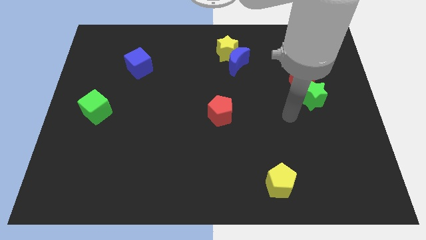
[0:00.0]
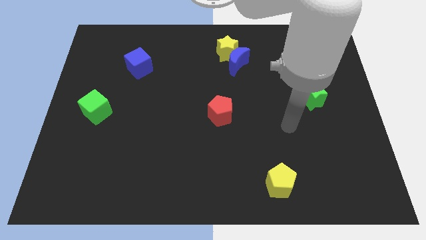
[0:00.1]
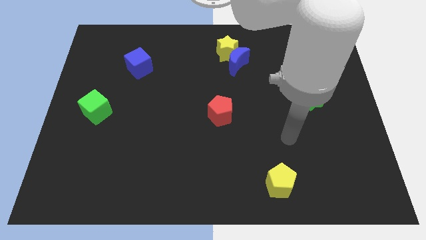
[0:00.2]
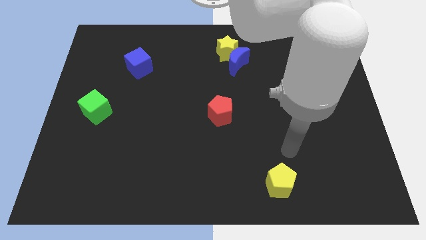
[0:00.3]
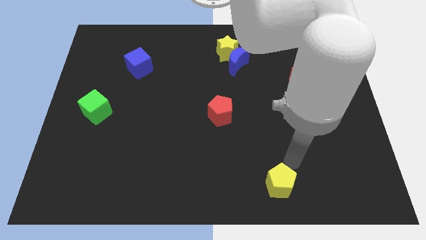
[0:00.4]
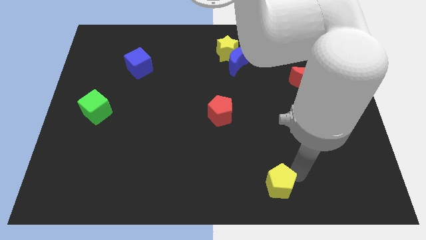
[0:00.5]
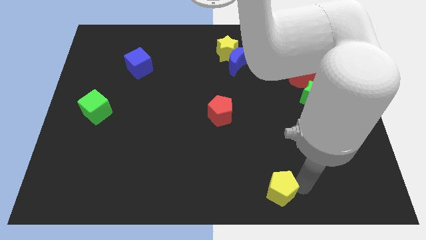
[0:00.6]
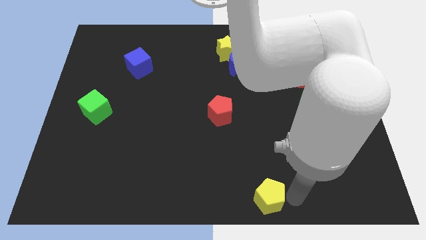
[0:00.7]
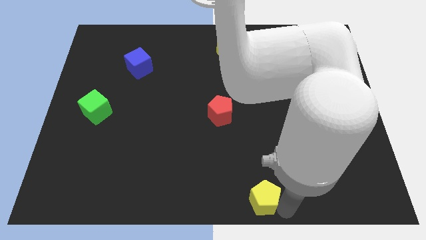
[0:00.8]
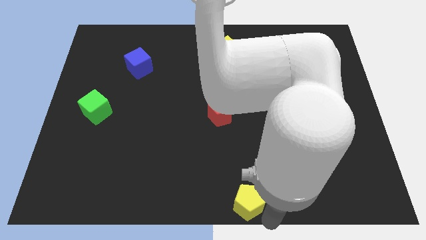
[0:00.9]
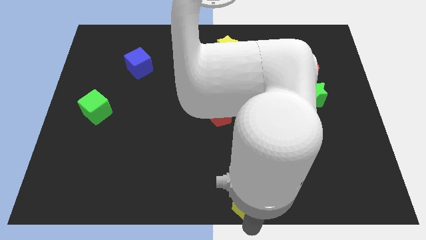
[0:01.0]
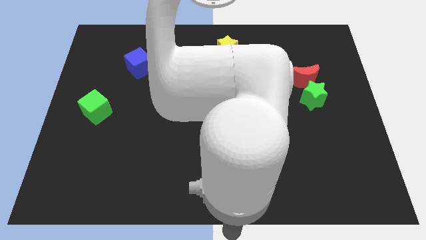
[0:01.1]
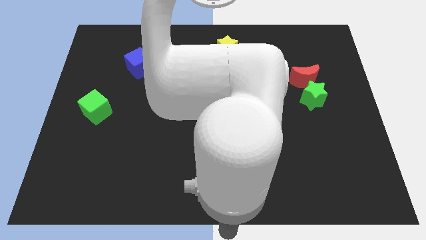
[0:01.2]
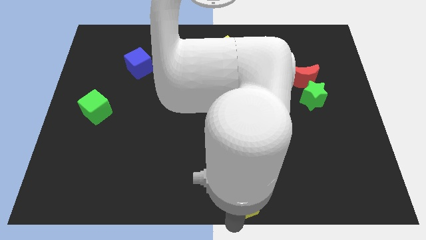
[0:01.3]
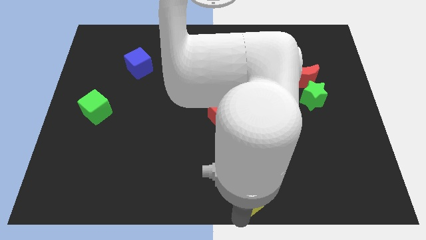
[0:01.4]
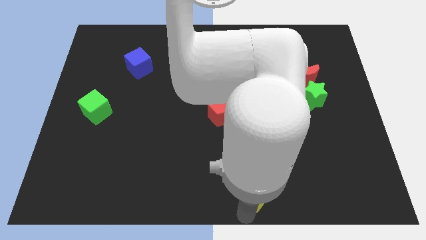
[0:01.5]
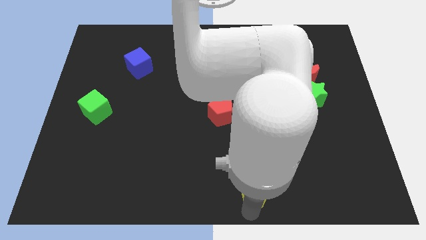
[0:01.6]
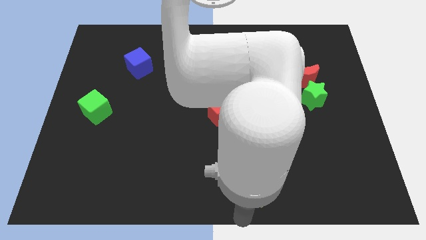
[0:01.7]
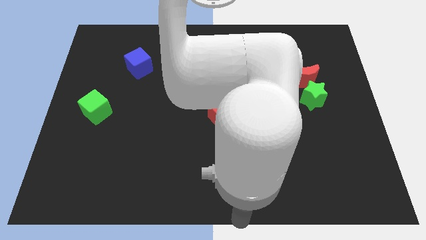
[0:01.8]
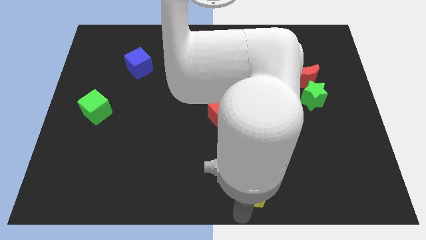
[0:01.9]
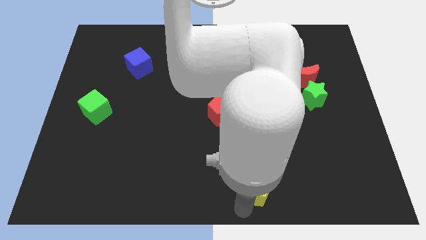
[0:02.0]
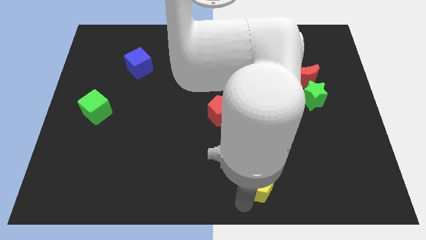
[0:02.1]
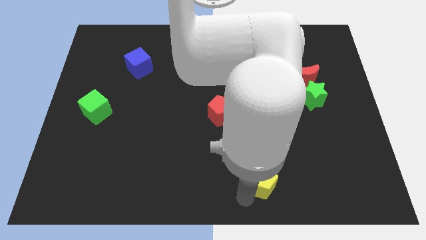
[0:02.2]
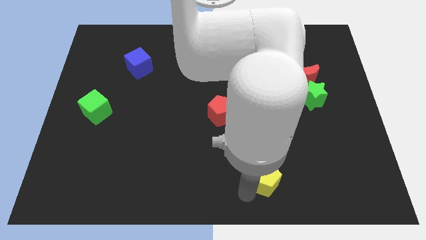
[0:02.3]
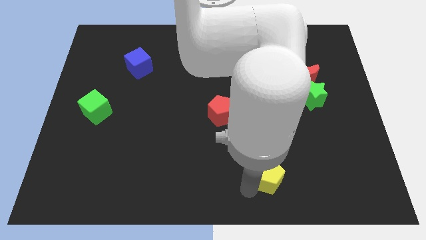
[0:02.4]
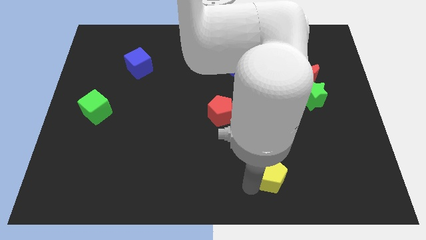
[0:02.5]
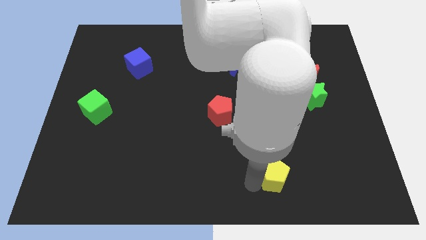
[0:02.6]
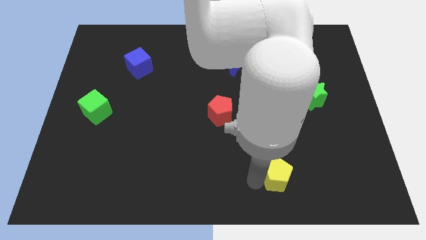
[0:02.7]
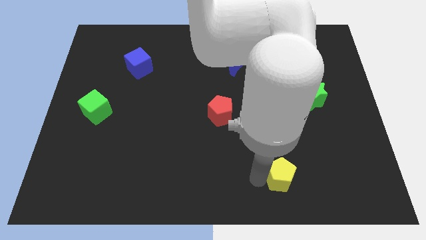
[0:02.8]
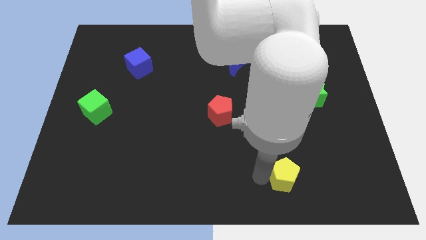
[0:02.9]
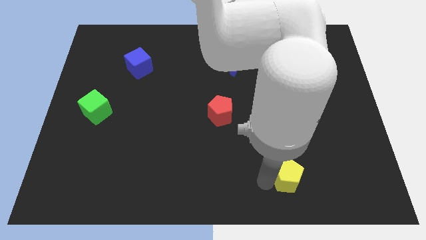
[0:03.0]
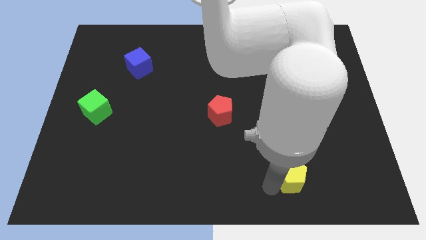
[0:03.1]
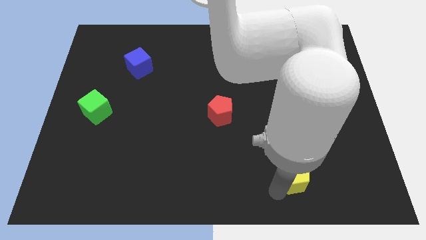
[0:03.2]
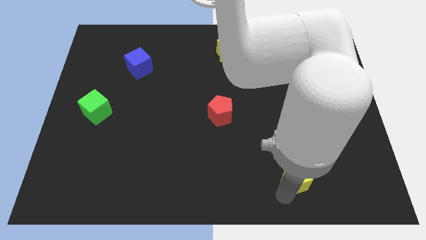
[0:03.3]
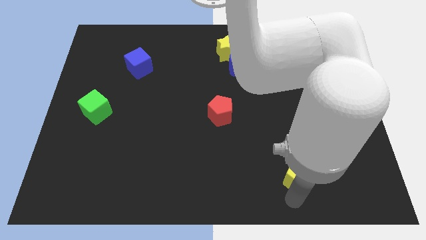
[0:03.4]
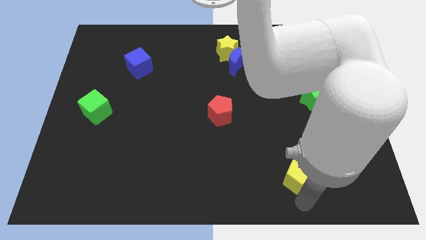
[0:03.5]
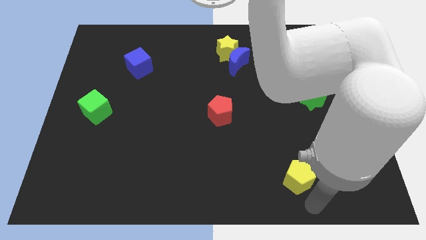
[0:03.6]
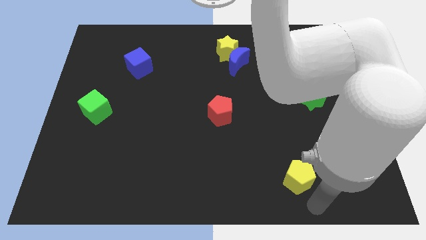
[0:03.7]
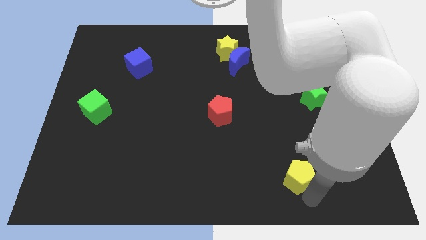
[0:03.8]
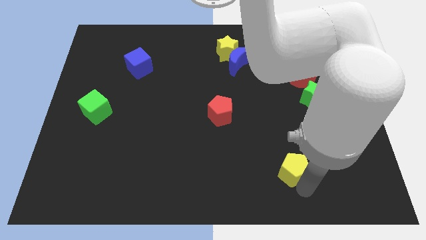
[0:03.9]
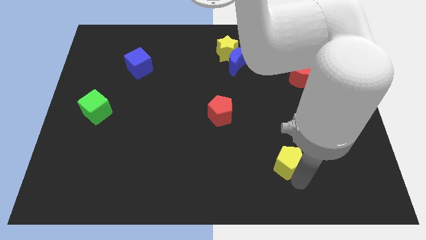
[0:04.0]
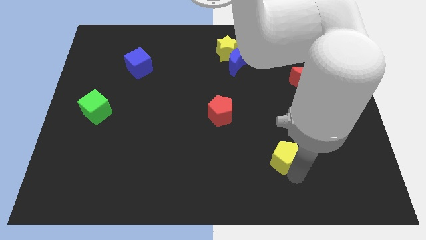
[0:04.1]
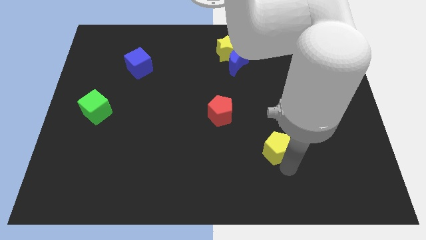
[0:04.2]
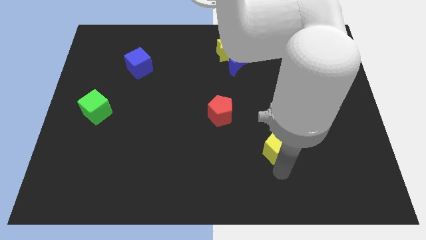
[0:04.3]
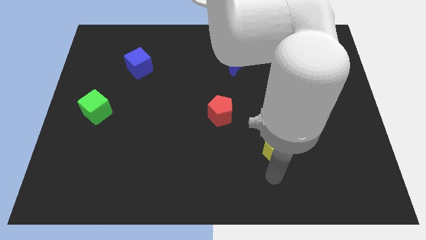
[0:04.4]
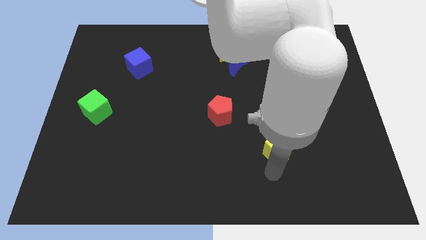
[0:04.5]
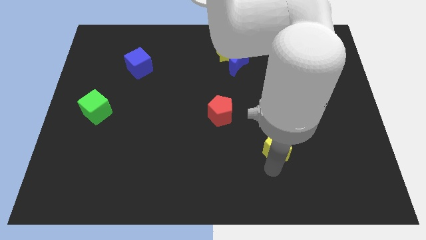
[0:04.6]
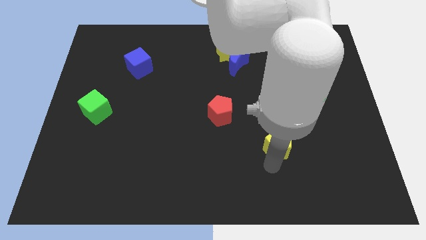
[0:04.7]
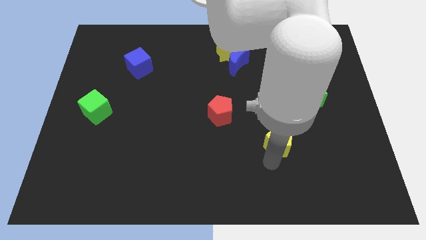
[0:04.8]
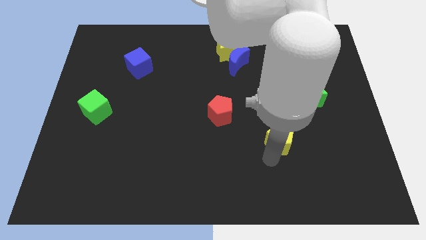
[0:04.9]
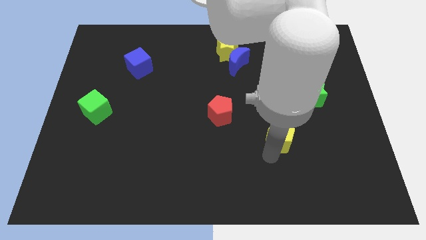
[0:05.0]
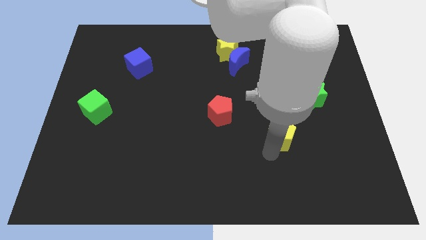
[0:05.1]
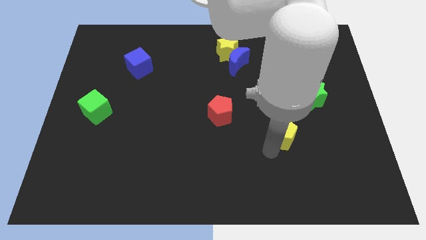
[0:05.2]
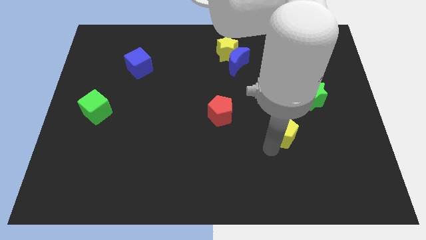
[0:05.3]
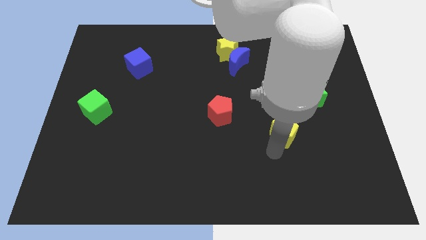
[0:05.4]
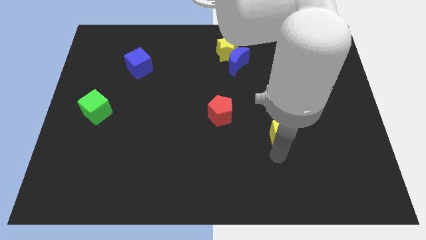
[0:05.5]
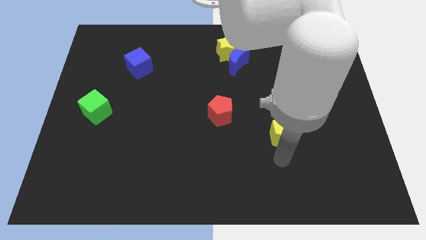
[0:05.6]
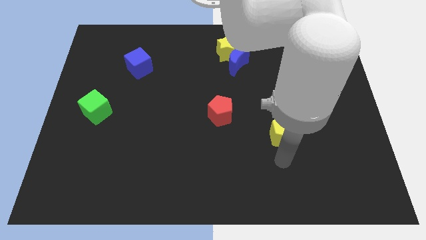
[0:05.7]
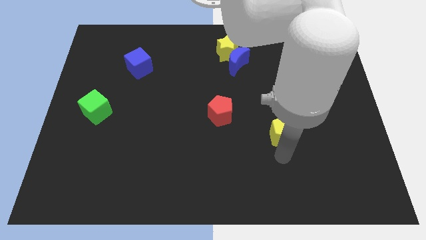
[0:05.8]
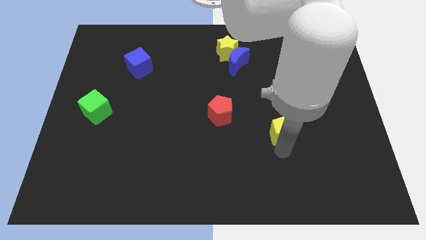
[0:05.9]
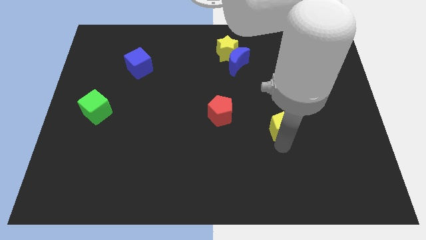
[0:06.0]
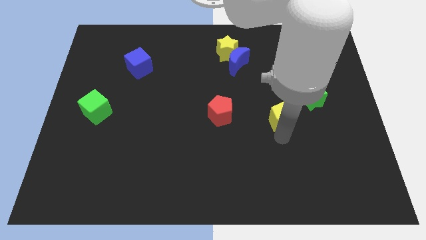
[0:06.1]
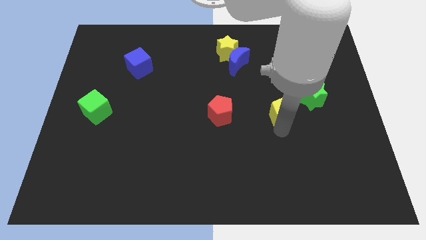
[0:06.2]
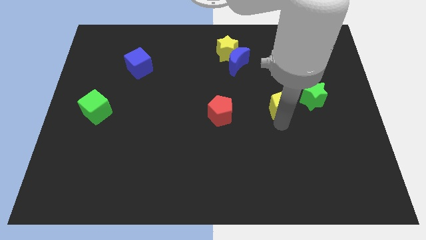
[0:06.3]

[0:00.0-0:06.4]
slide the yellow pentagon to the bottom left side of the red moon
